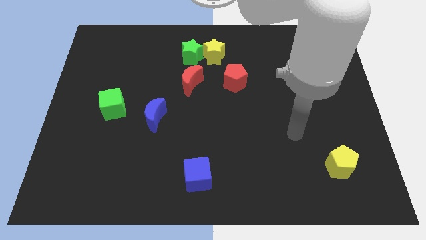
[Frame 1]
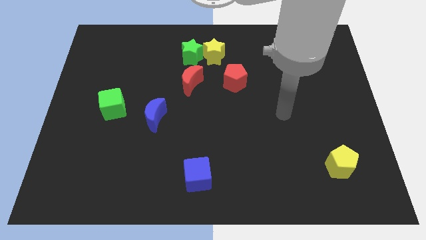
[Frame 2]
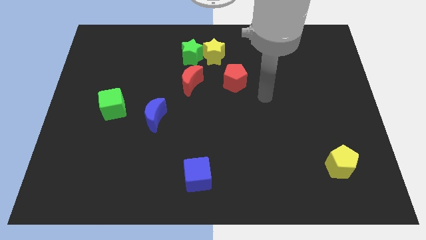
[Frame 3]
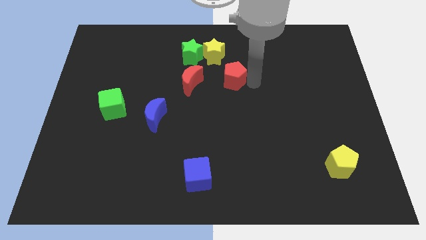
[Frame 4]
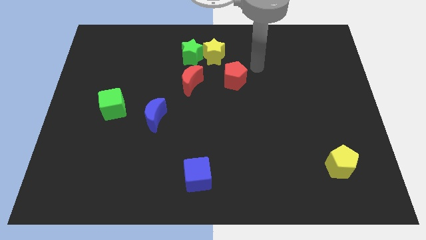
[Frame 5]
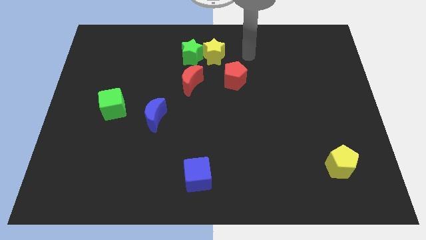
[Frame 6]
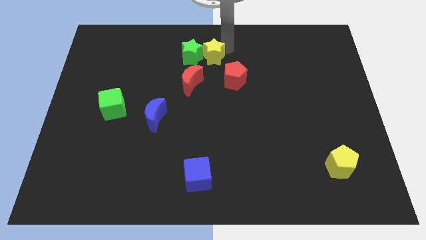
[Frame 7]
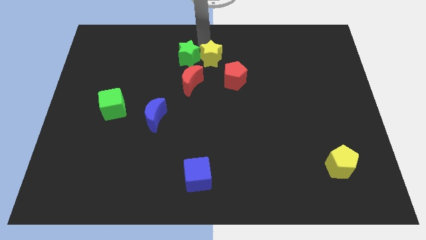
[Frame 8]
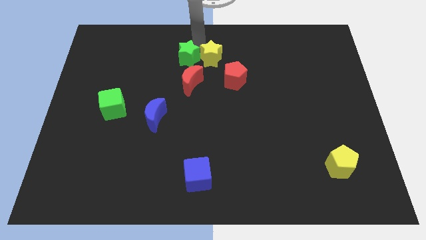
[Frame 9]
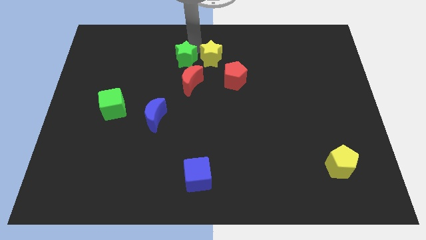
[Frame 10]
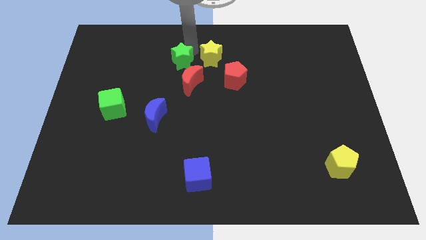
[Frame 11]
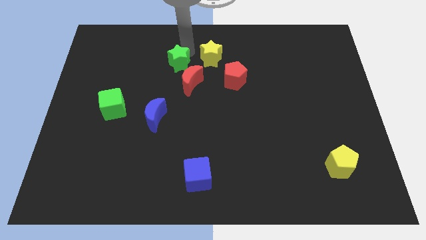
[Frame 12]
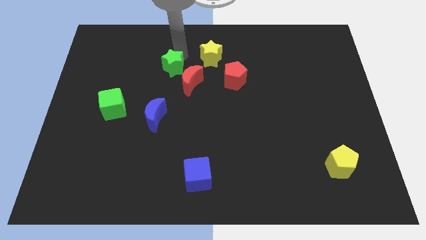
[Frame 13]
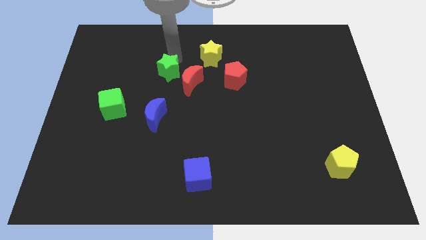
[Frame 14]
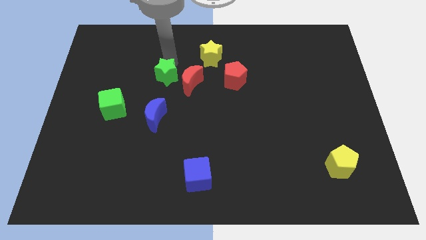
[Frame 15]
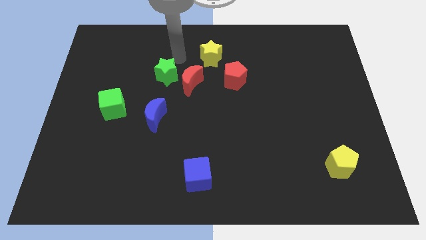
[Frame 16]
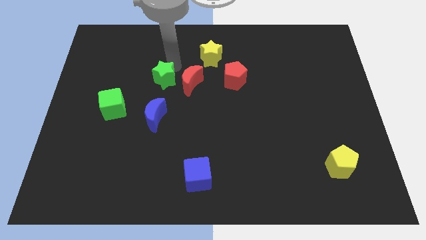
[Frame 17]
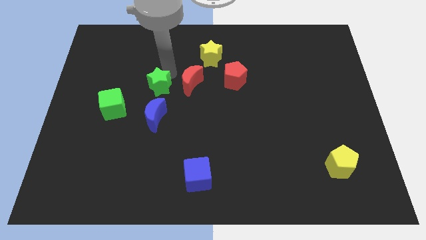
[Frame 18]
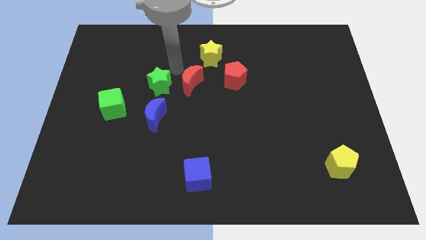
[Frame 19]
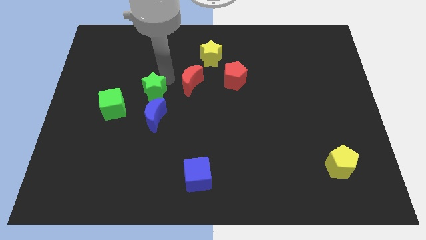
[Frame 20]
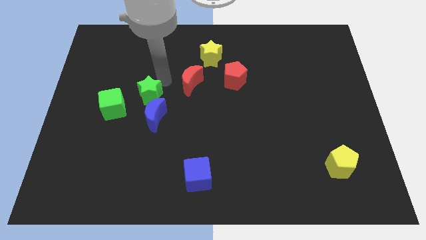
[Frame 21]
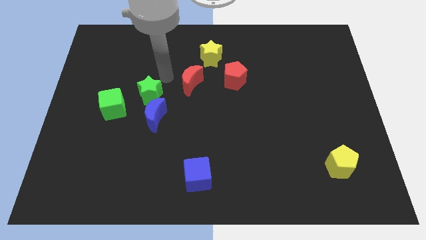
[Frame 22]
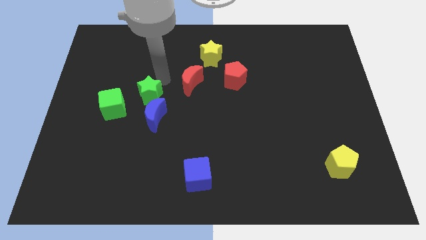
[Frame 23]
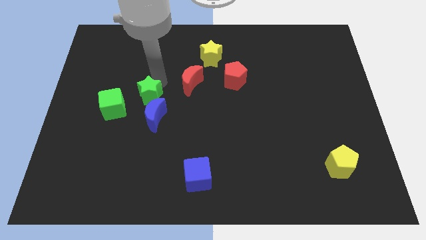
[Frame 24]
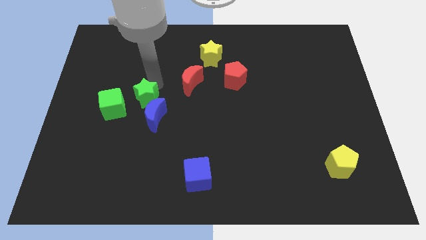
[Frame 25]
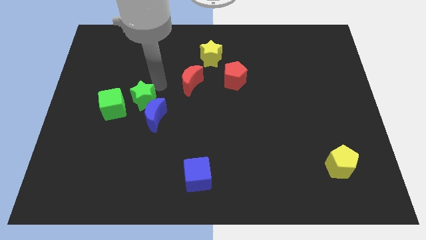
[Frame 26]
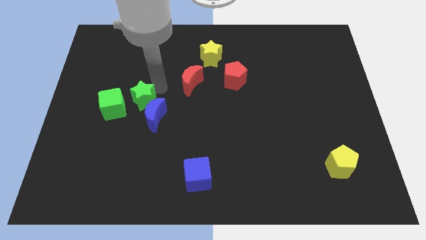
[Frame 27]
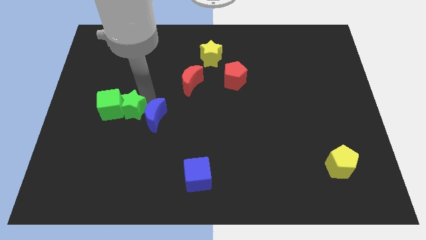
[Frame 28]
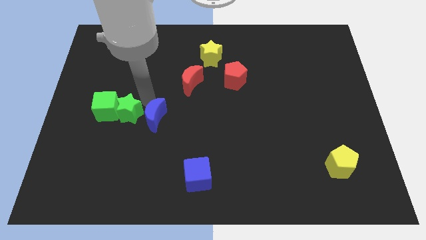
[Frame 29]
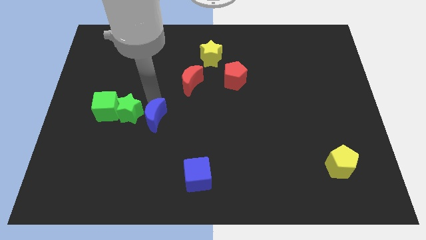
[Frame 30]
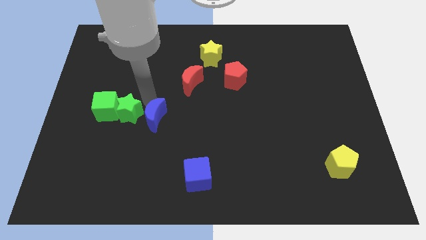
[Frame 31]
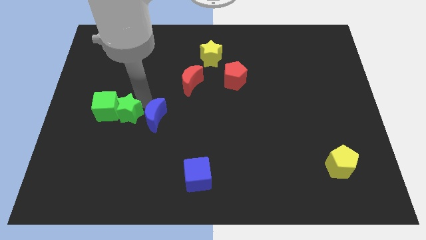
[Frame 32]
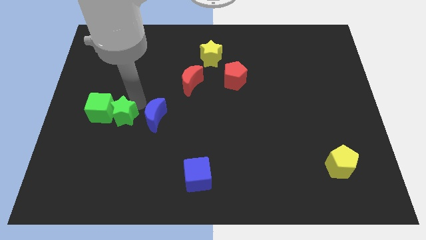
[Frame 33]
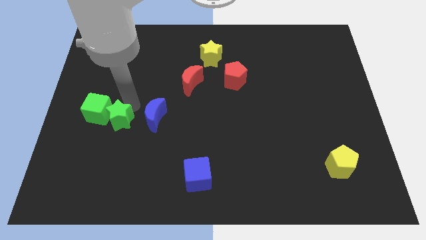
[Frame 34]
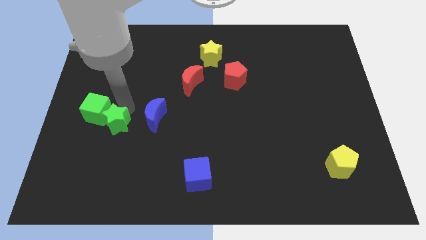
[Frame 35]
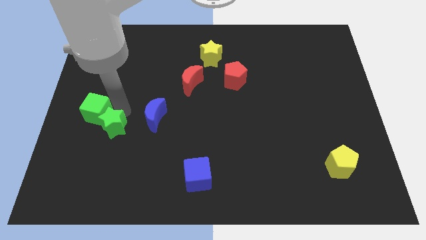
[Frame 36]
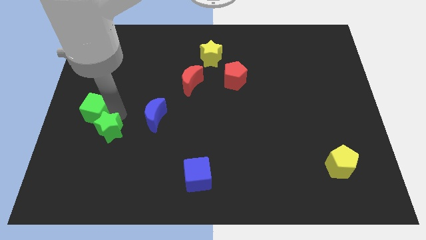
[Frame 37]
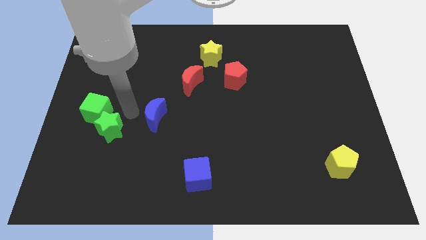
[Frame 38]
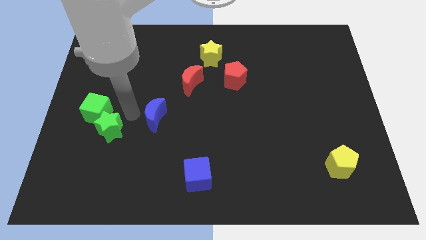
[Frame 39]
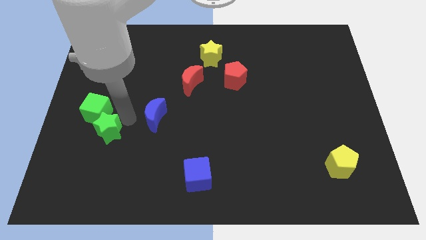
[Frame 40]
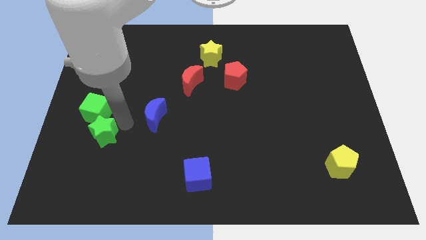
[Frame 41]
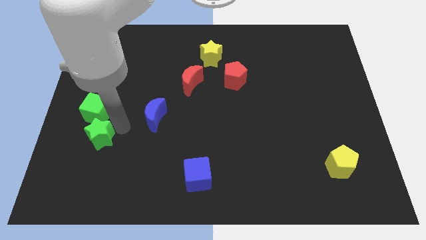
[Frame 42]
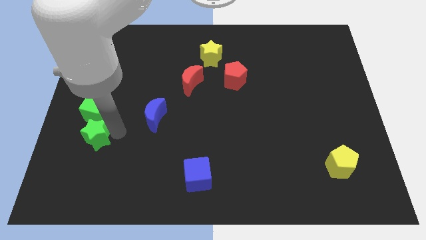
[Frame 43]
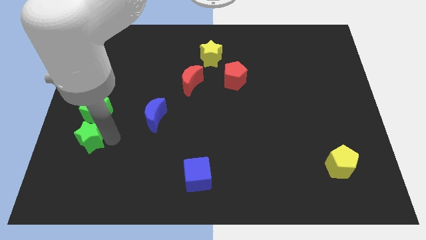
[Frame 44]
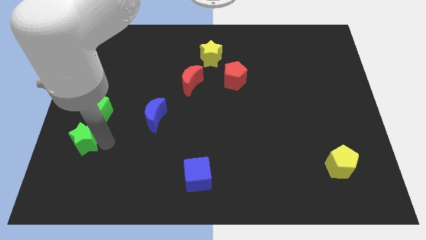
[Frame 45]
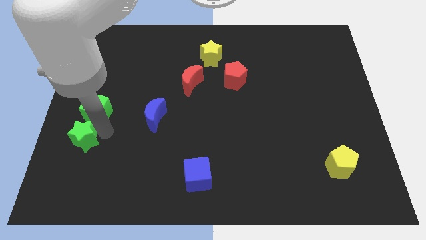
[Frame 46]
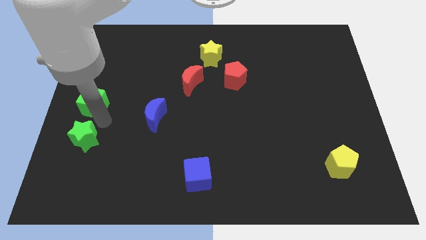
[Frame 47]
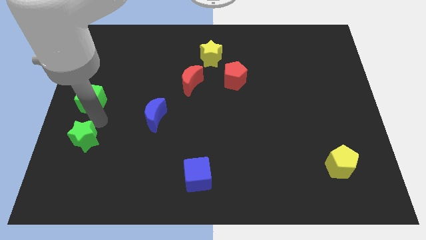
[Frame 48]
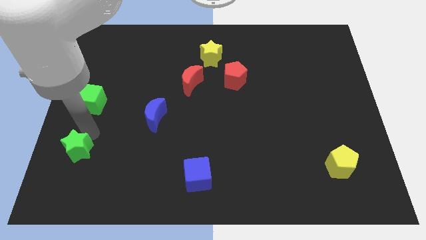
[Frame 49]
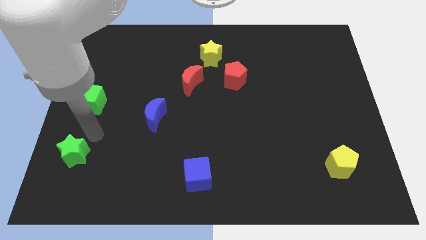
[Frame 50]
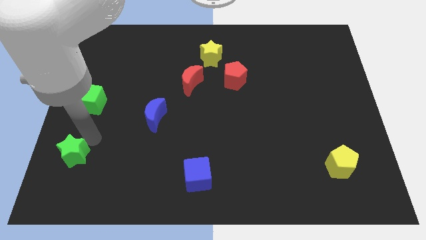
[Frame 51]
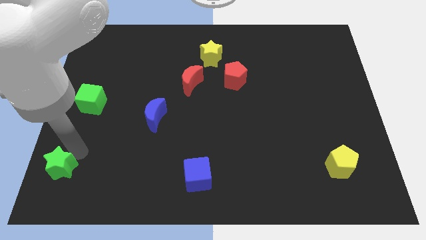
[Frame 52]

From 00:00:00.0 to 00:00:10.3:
move the green star to the bottom left corner

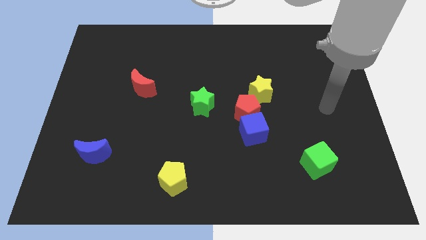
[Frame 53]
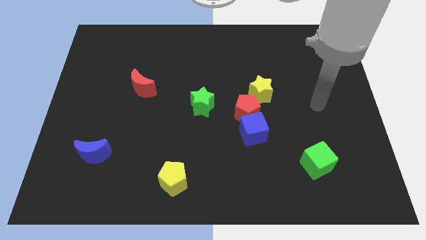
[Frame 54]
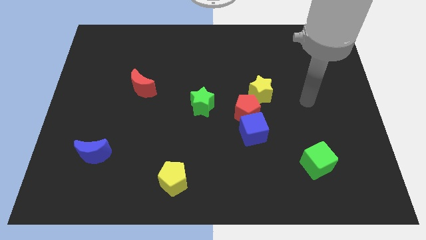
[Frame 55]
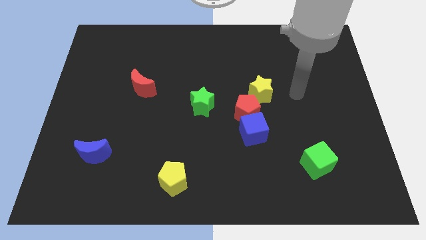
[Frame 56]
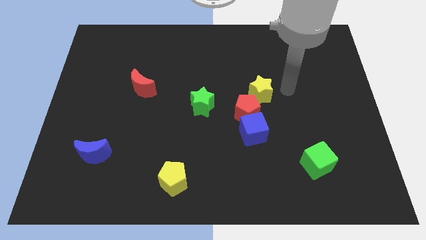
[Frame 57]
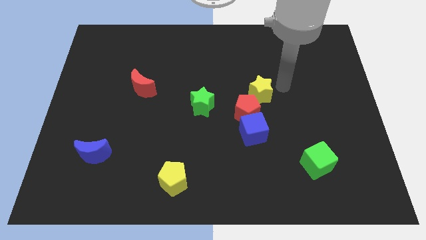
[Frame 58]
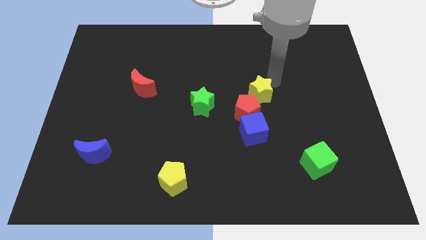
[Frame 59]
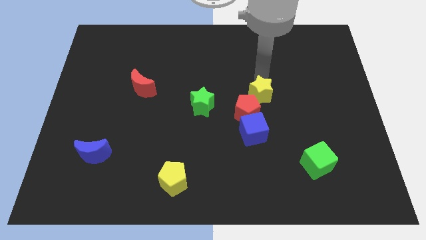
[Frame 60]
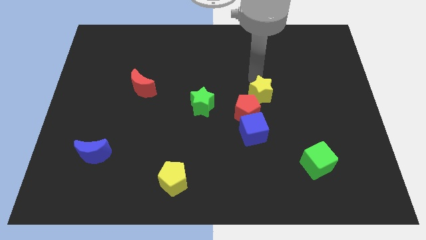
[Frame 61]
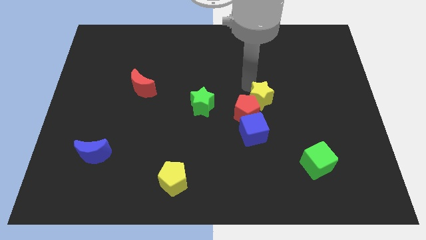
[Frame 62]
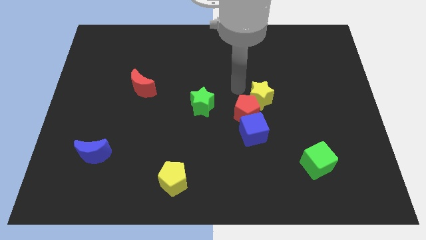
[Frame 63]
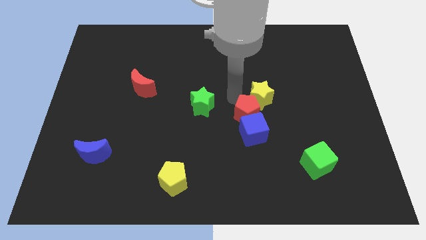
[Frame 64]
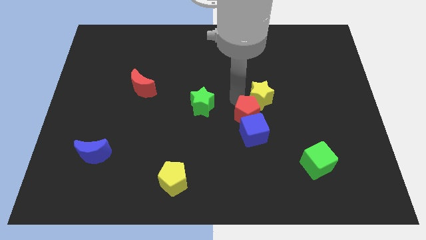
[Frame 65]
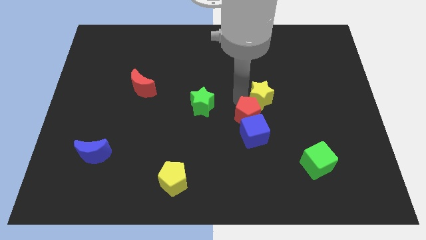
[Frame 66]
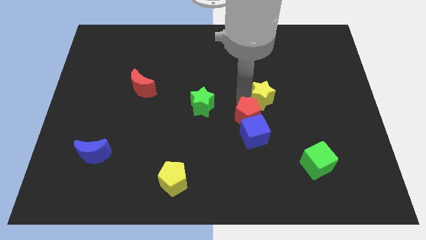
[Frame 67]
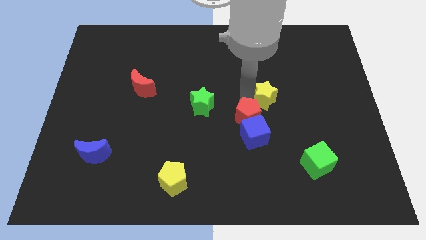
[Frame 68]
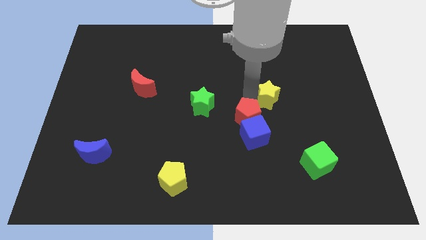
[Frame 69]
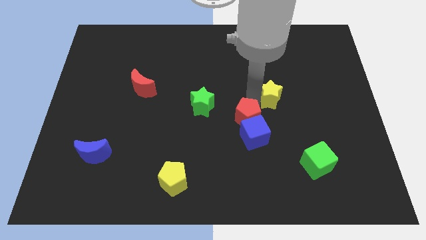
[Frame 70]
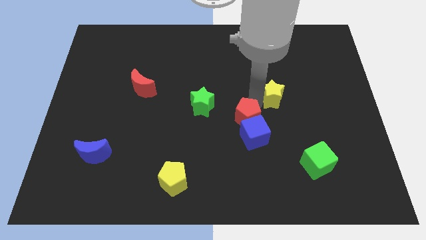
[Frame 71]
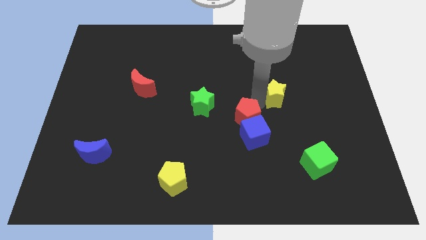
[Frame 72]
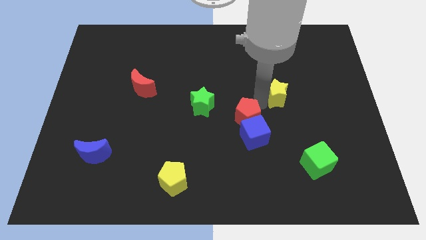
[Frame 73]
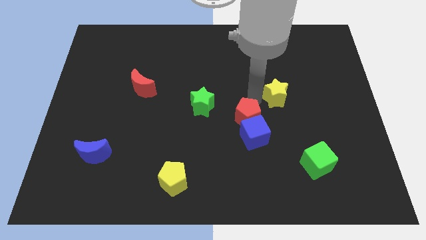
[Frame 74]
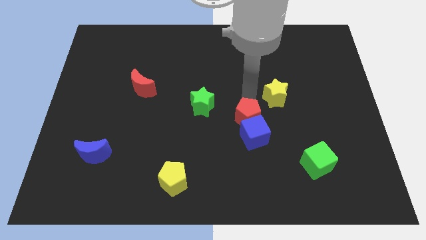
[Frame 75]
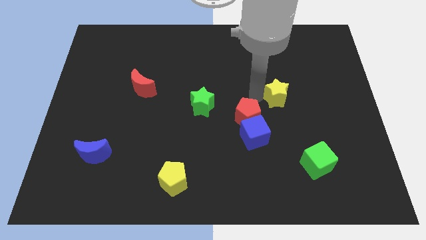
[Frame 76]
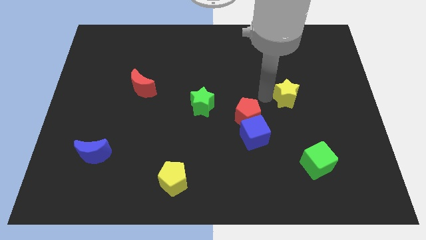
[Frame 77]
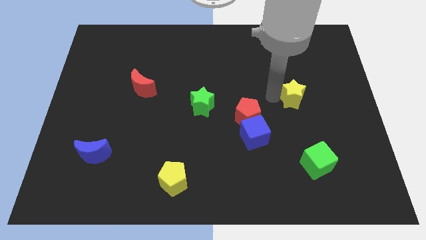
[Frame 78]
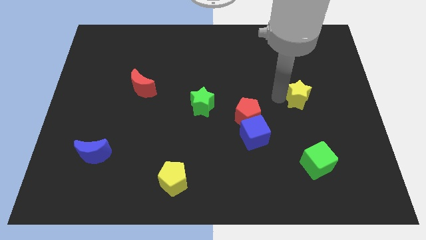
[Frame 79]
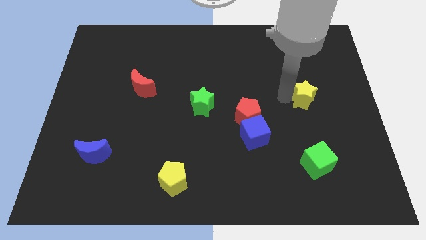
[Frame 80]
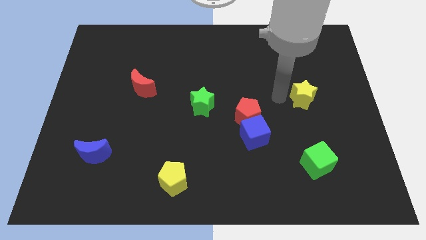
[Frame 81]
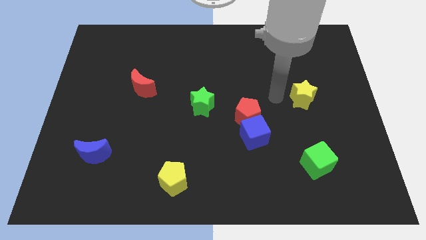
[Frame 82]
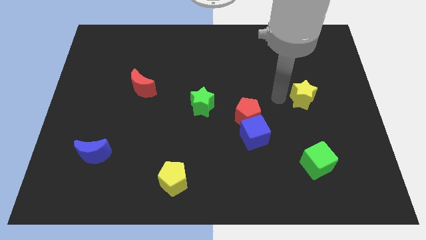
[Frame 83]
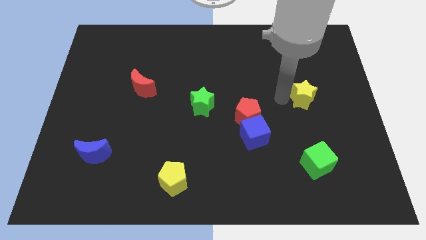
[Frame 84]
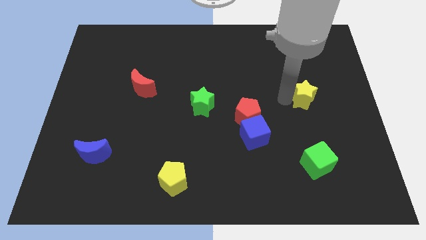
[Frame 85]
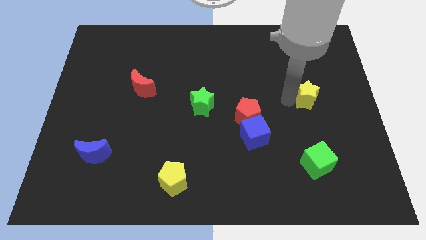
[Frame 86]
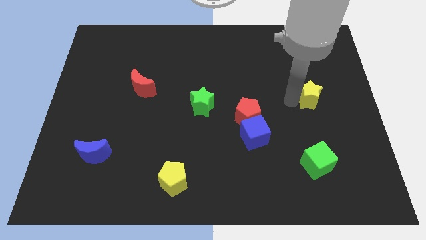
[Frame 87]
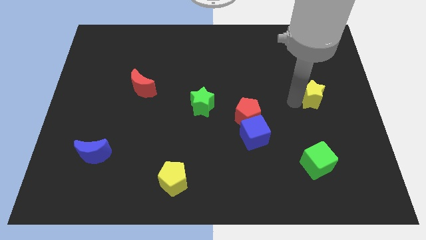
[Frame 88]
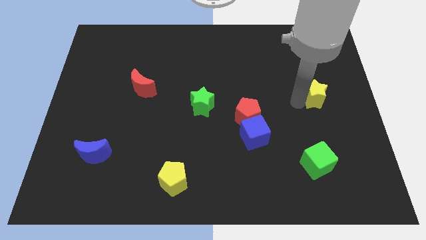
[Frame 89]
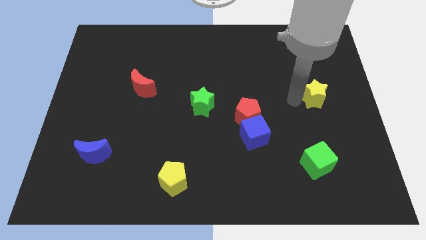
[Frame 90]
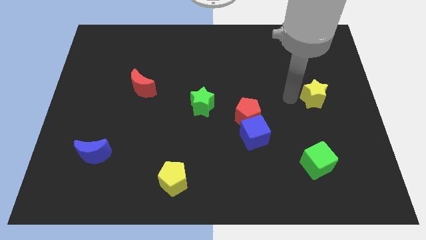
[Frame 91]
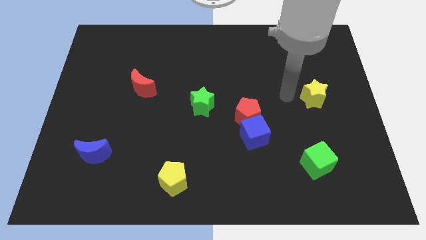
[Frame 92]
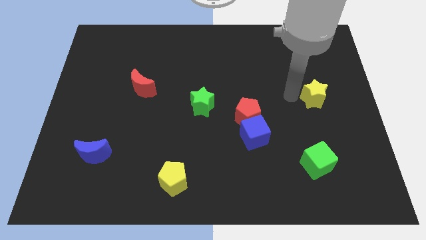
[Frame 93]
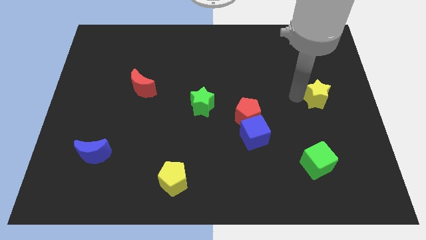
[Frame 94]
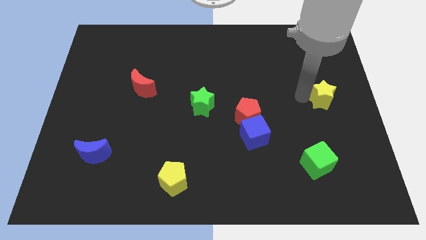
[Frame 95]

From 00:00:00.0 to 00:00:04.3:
push the yellow star to the center right
